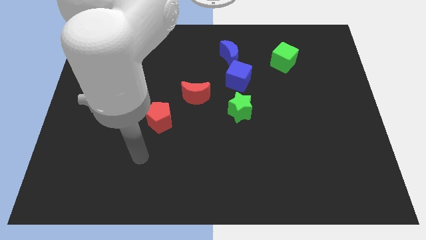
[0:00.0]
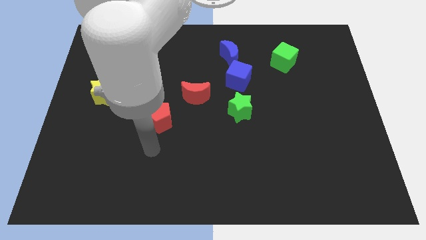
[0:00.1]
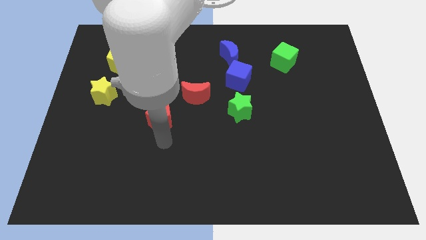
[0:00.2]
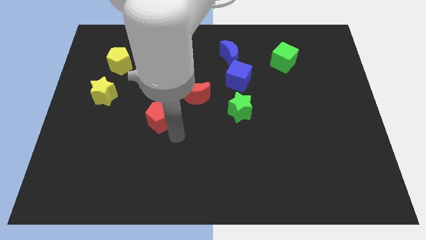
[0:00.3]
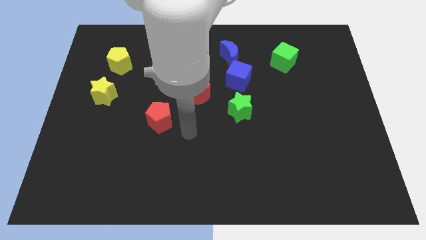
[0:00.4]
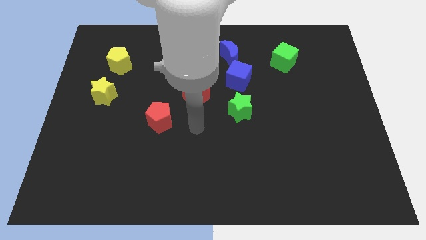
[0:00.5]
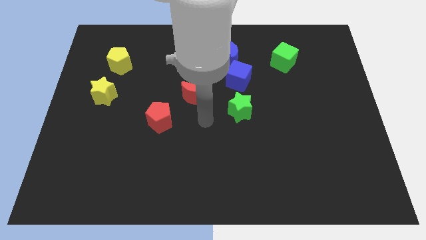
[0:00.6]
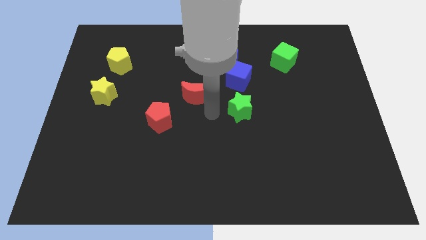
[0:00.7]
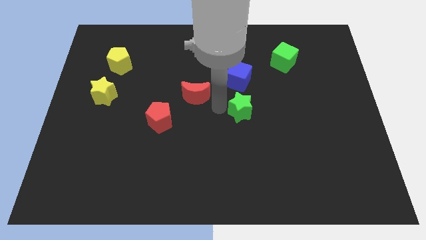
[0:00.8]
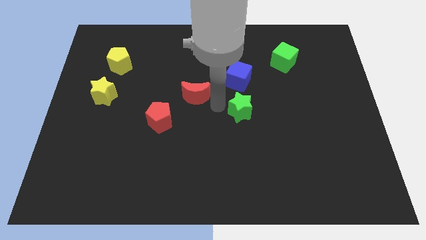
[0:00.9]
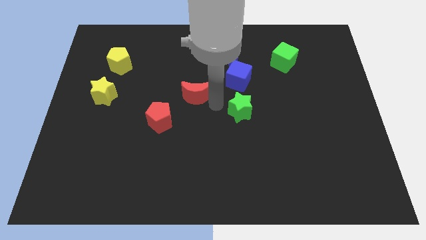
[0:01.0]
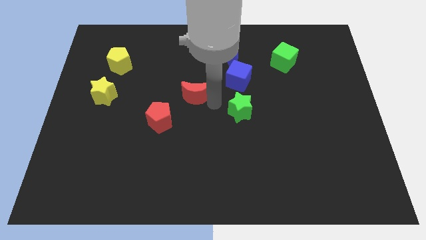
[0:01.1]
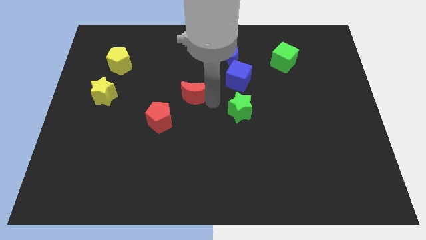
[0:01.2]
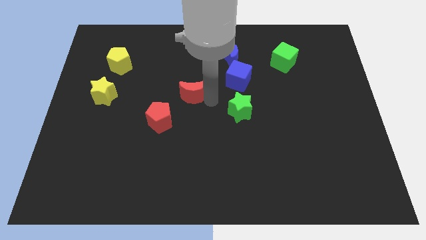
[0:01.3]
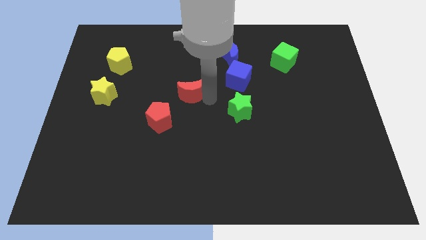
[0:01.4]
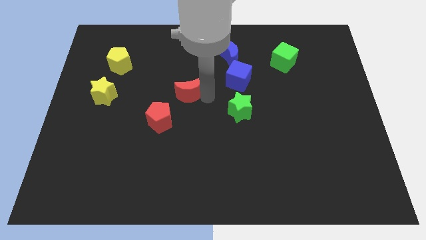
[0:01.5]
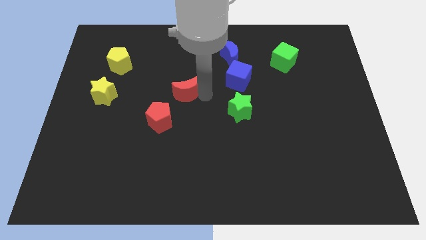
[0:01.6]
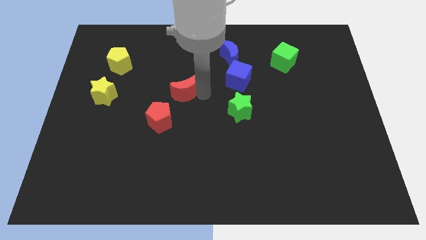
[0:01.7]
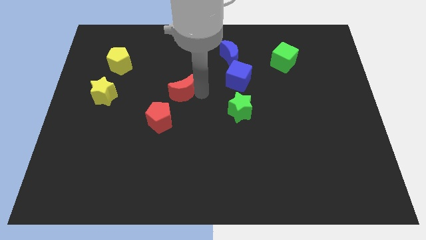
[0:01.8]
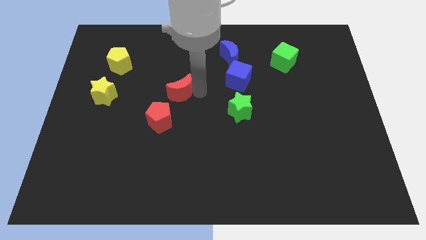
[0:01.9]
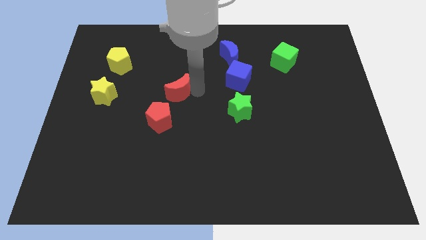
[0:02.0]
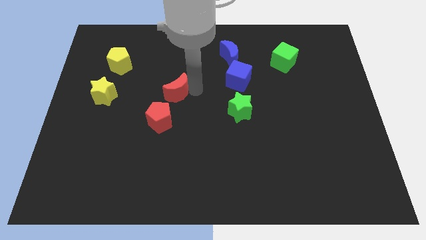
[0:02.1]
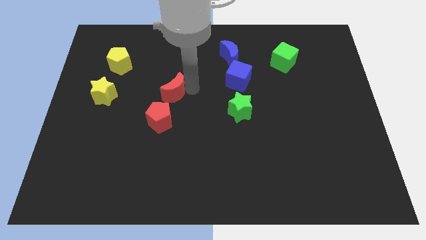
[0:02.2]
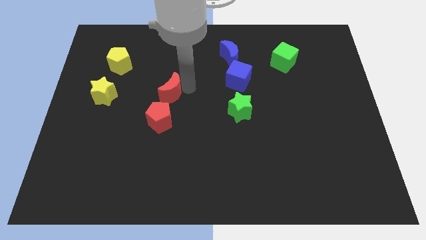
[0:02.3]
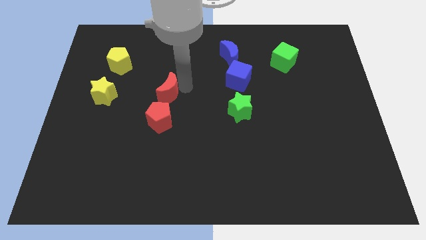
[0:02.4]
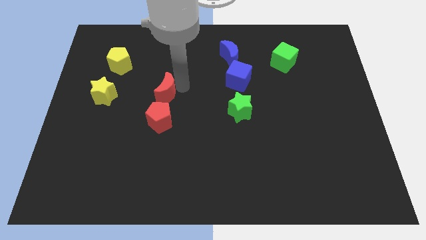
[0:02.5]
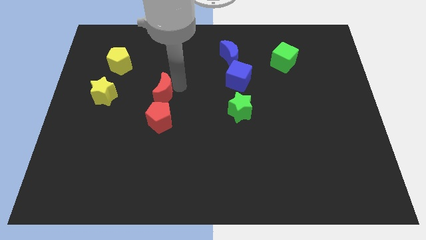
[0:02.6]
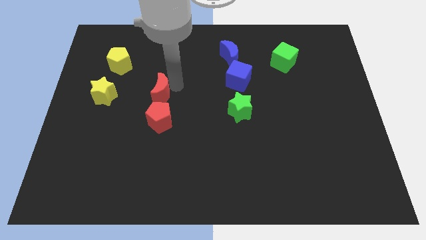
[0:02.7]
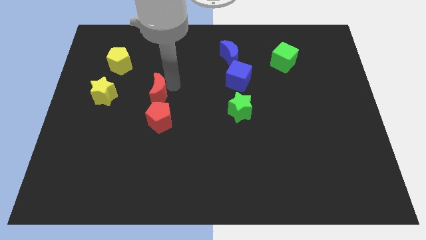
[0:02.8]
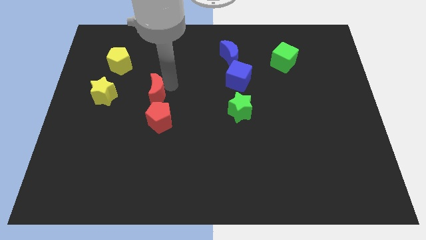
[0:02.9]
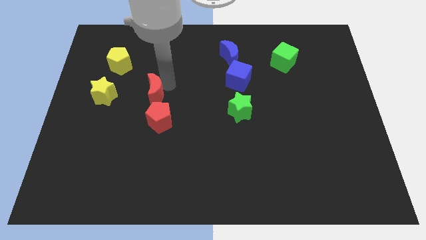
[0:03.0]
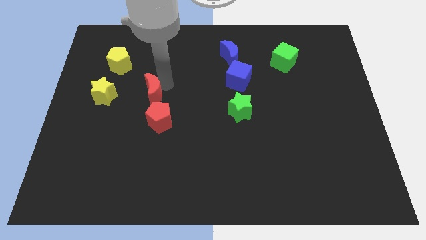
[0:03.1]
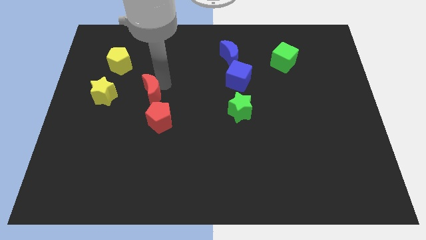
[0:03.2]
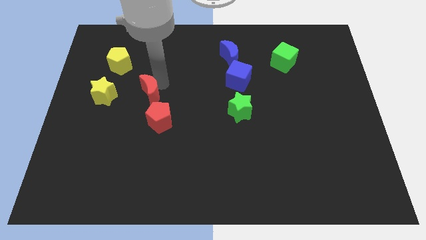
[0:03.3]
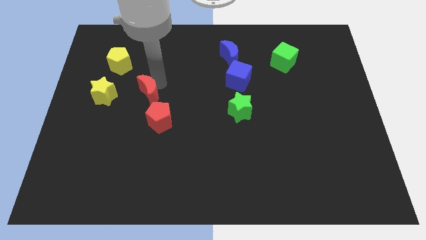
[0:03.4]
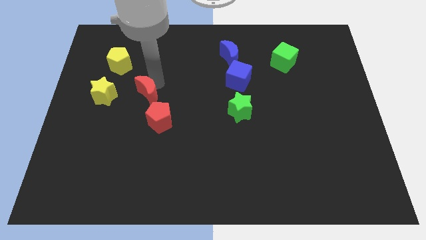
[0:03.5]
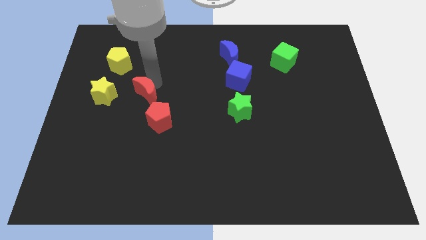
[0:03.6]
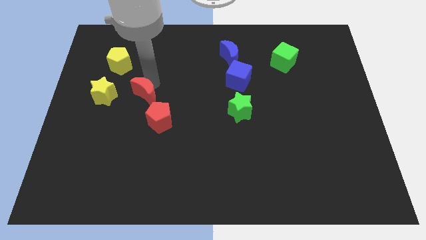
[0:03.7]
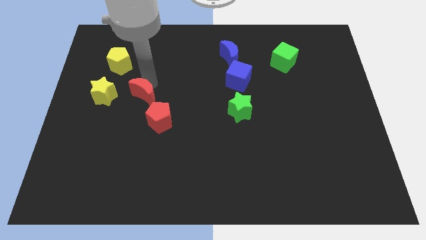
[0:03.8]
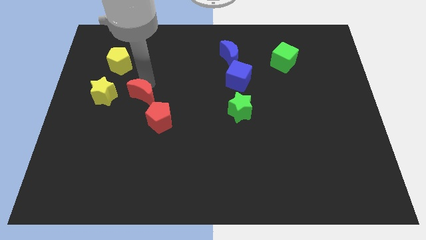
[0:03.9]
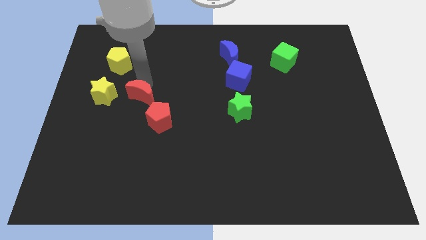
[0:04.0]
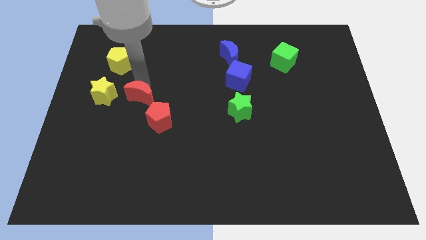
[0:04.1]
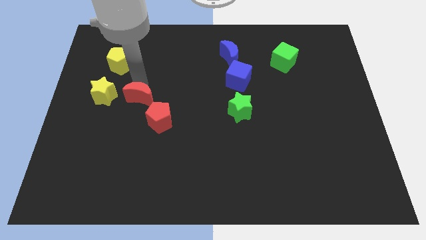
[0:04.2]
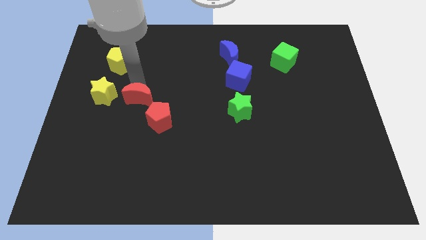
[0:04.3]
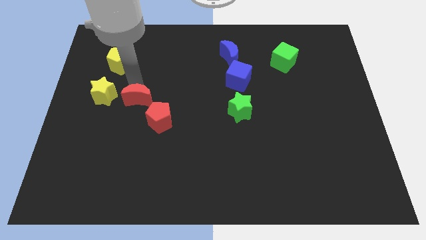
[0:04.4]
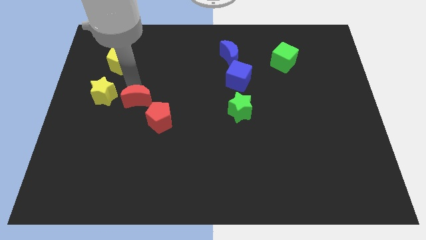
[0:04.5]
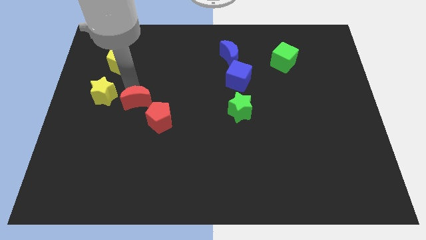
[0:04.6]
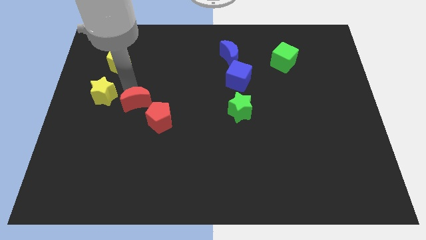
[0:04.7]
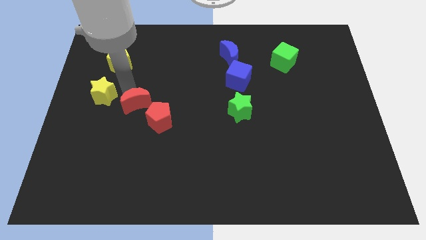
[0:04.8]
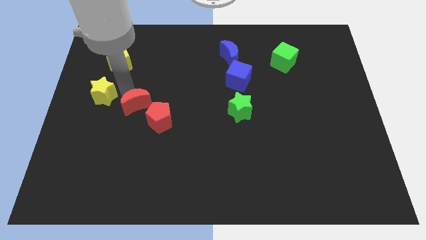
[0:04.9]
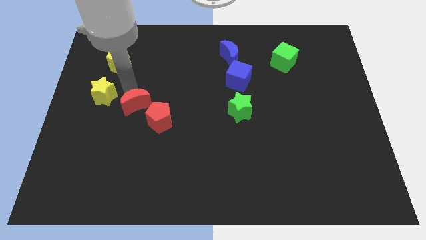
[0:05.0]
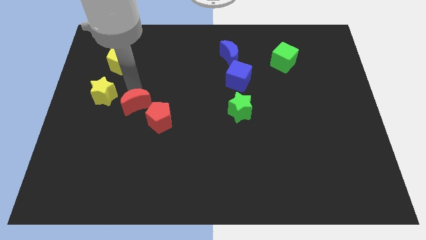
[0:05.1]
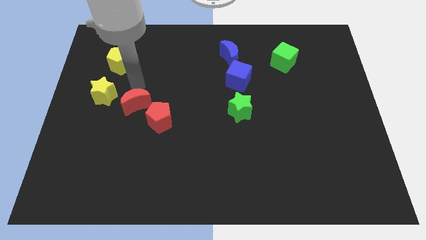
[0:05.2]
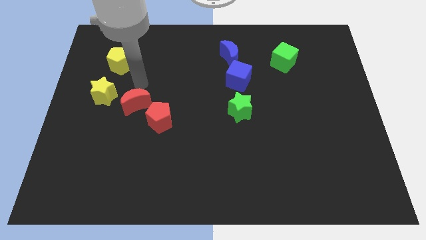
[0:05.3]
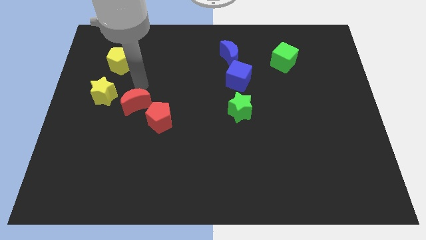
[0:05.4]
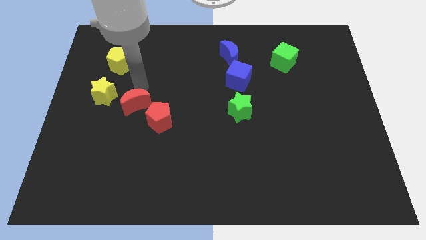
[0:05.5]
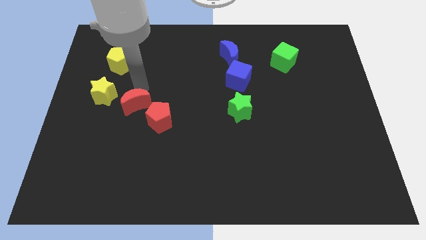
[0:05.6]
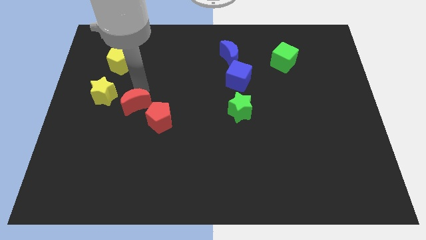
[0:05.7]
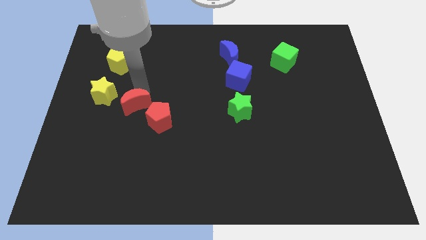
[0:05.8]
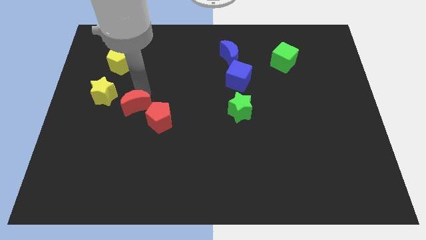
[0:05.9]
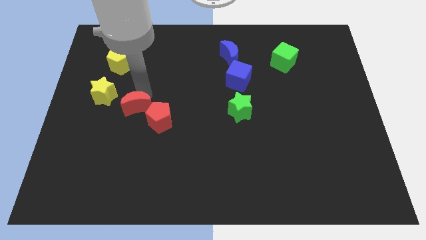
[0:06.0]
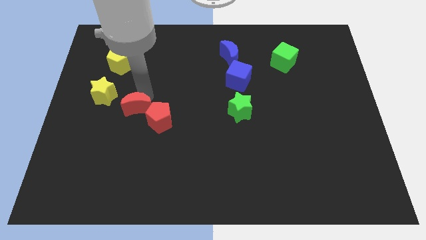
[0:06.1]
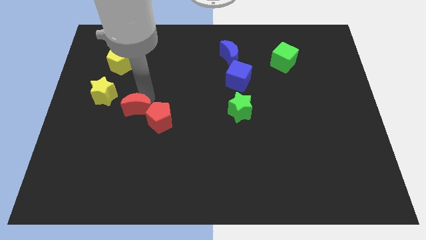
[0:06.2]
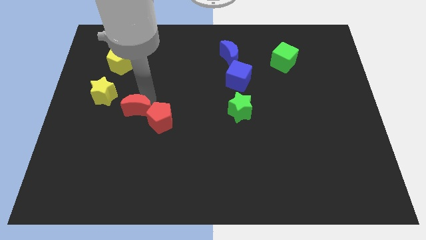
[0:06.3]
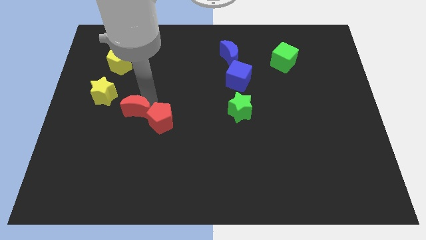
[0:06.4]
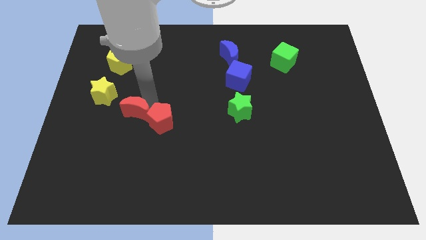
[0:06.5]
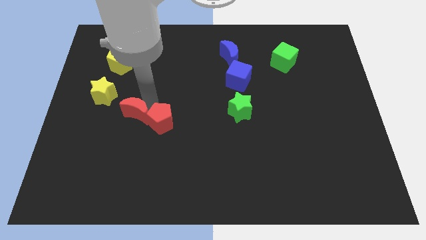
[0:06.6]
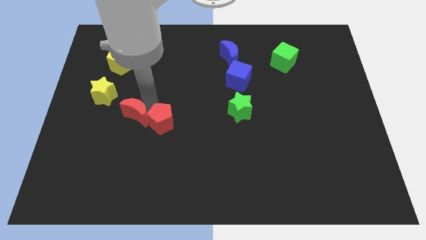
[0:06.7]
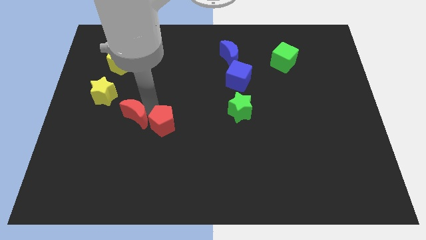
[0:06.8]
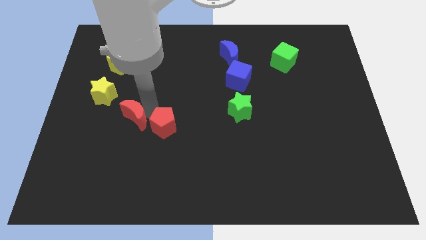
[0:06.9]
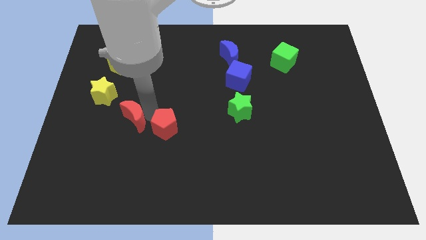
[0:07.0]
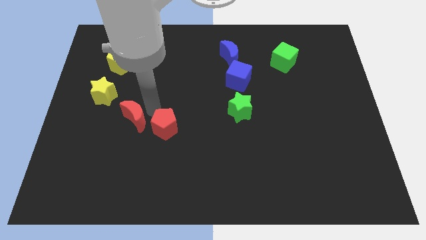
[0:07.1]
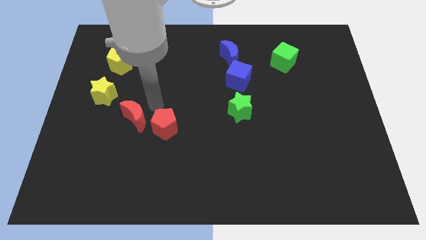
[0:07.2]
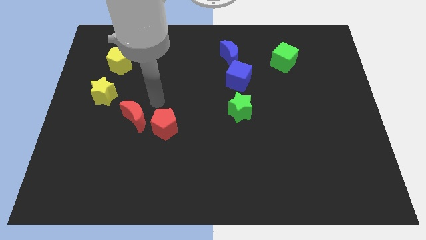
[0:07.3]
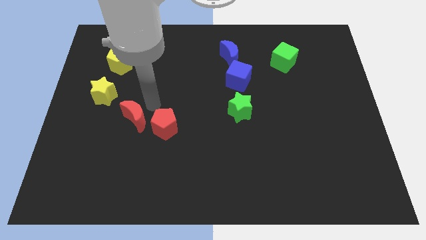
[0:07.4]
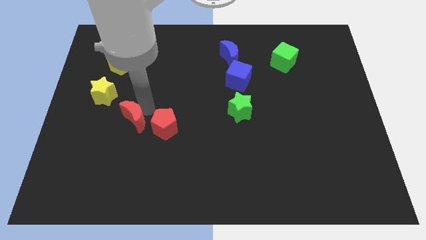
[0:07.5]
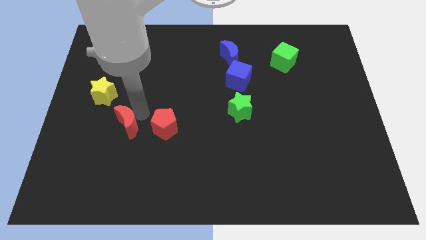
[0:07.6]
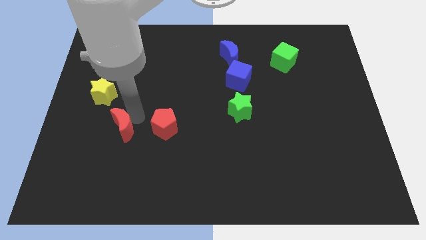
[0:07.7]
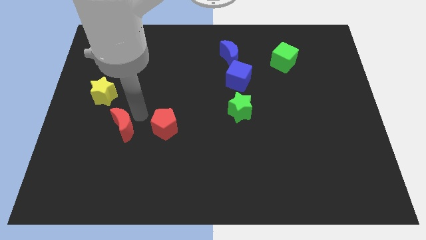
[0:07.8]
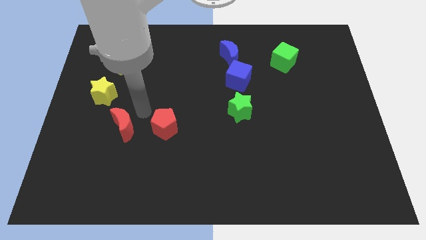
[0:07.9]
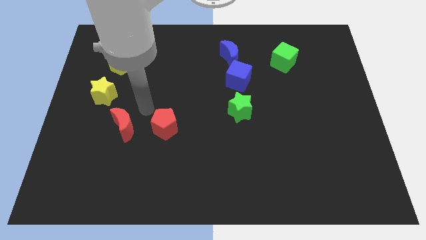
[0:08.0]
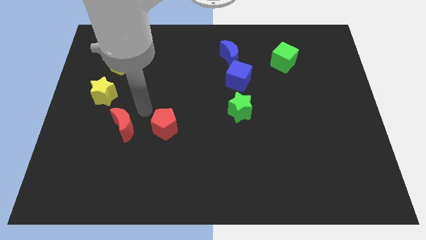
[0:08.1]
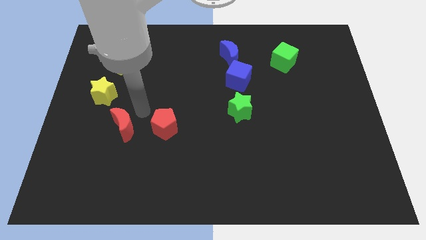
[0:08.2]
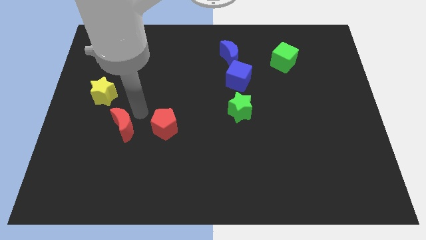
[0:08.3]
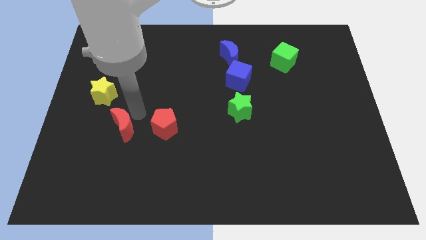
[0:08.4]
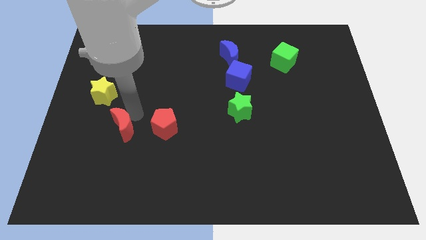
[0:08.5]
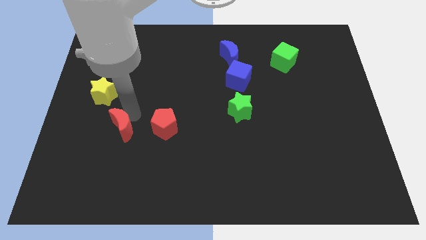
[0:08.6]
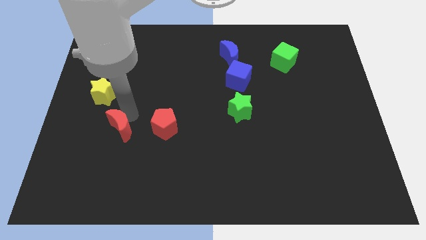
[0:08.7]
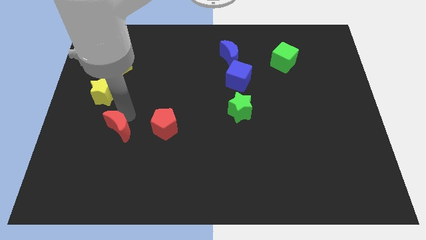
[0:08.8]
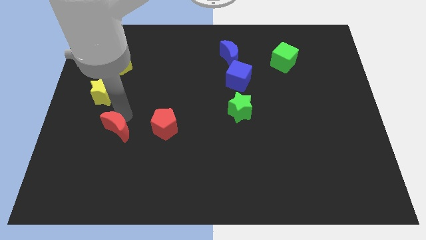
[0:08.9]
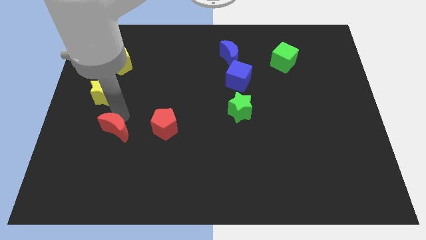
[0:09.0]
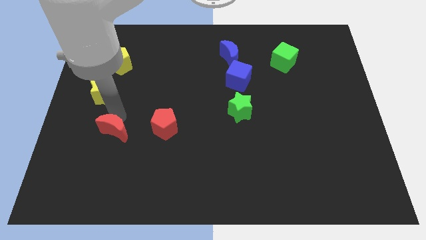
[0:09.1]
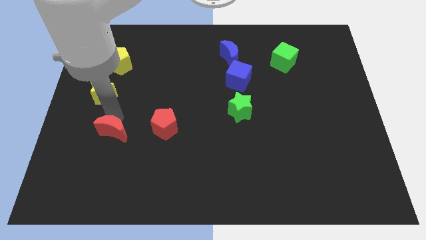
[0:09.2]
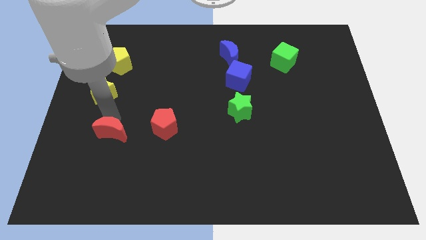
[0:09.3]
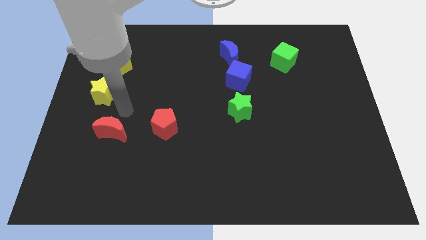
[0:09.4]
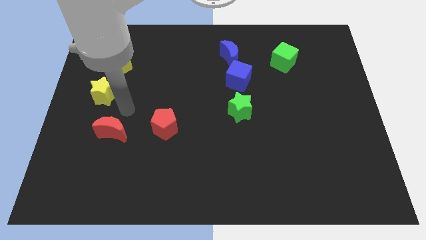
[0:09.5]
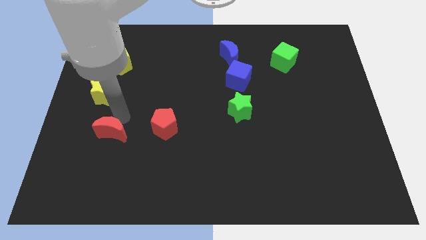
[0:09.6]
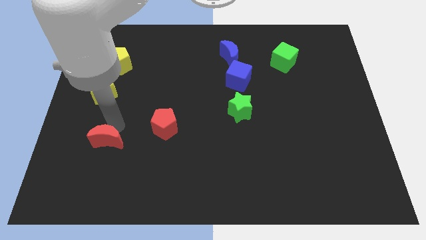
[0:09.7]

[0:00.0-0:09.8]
push the red moon downwards and then to the left
